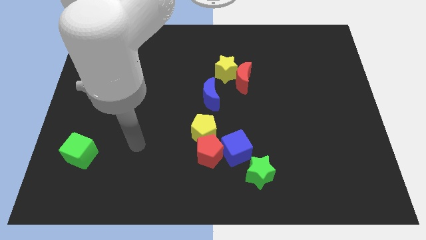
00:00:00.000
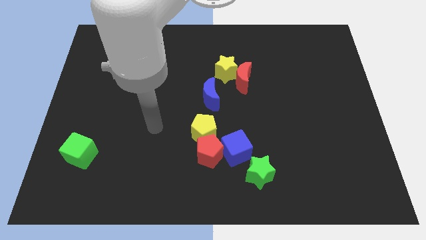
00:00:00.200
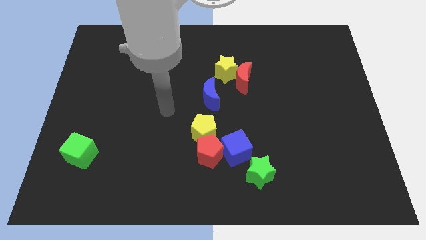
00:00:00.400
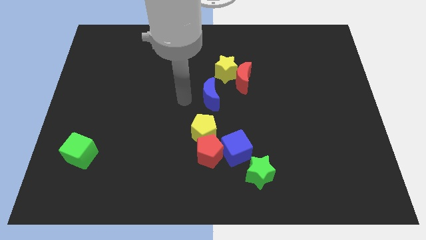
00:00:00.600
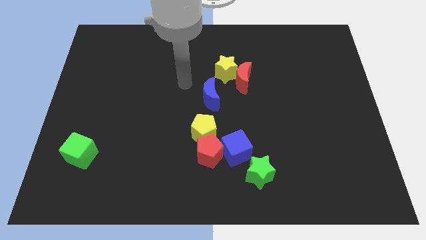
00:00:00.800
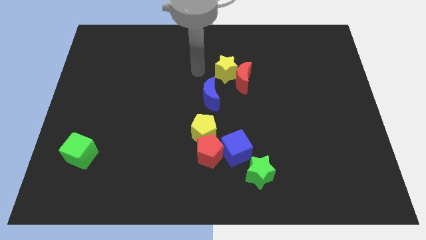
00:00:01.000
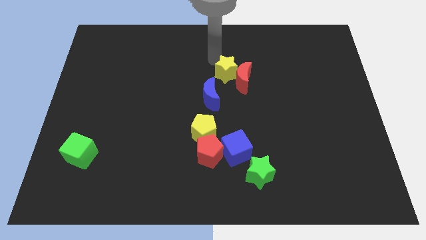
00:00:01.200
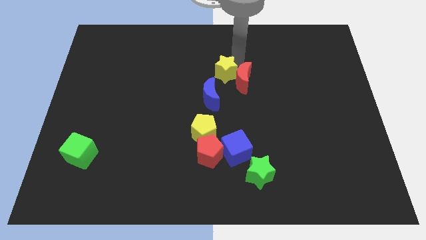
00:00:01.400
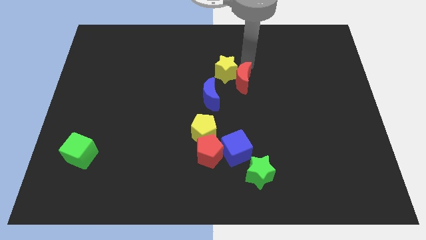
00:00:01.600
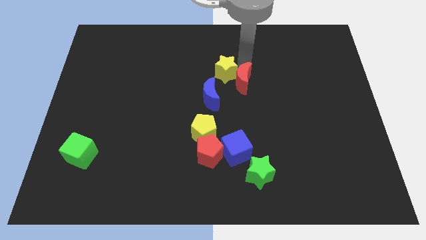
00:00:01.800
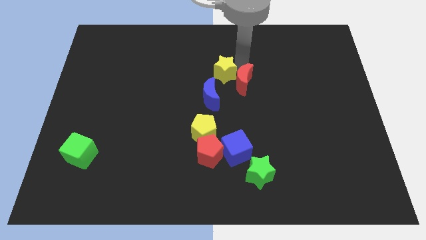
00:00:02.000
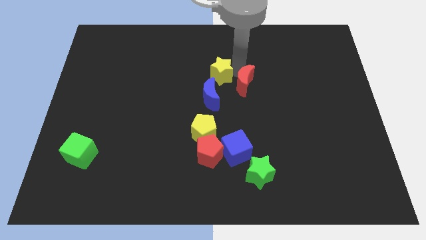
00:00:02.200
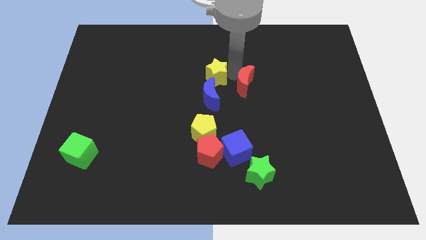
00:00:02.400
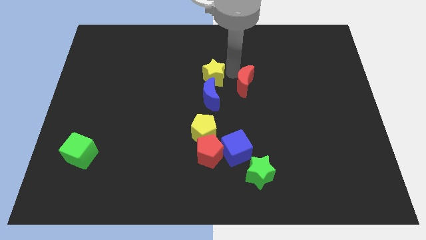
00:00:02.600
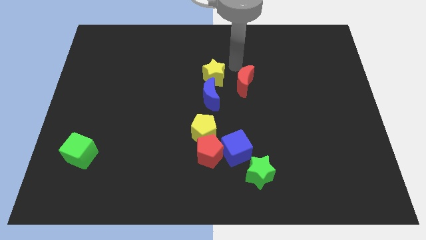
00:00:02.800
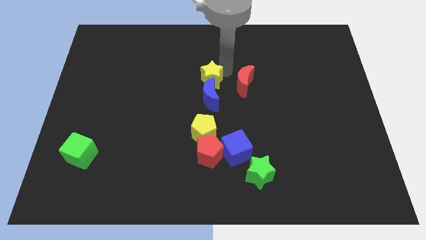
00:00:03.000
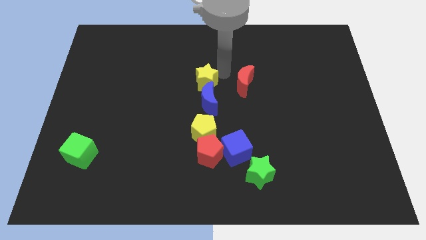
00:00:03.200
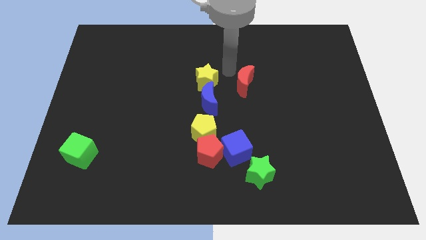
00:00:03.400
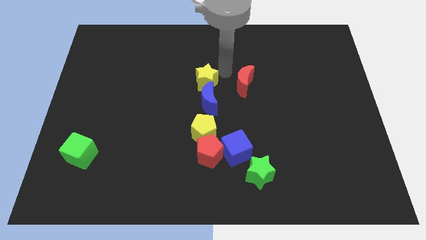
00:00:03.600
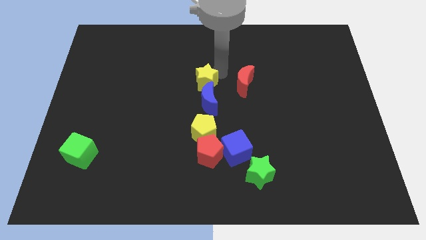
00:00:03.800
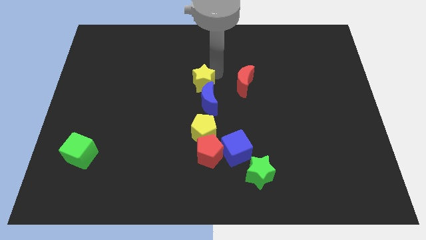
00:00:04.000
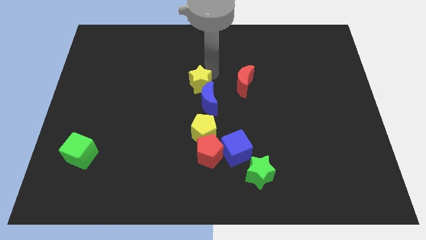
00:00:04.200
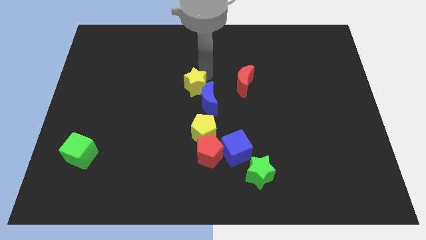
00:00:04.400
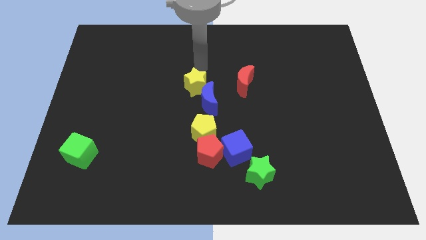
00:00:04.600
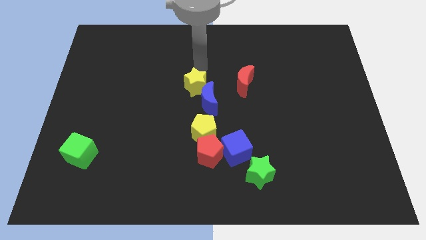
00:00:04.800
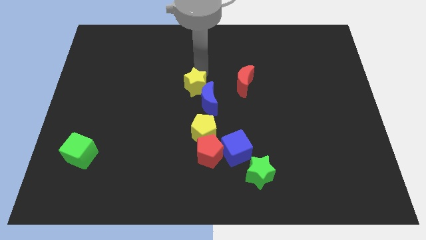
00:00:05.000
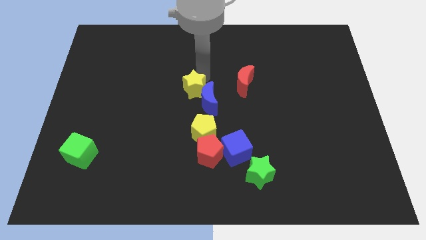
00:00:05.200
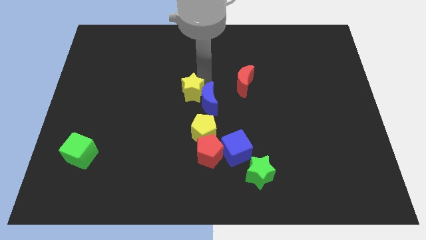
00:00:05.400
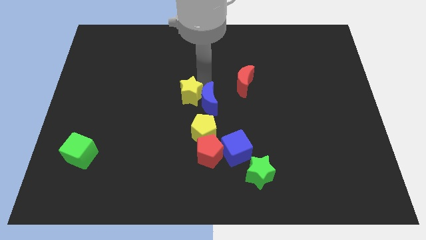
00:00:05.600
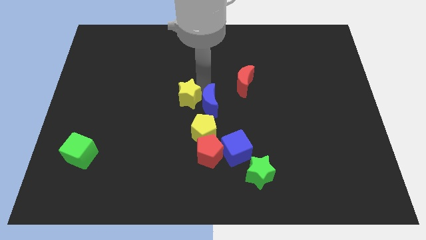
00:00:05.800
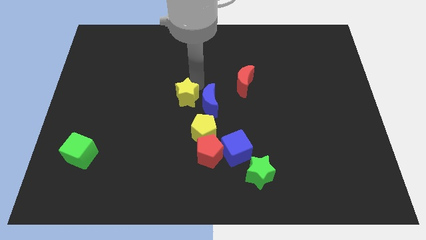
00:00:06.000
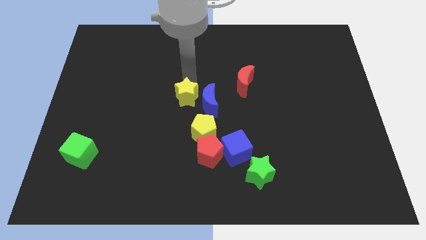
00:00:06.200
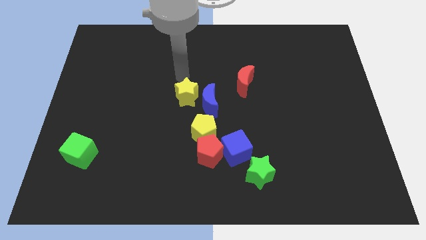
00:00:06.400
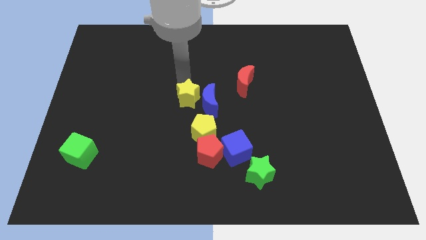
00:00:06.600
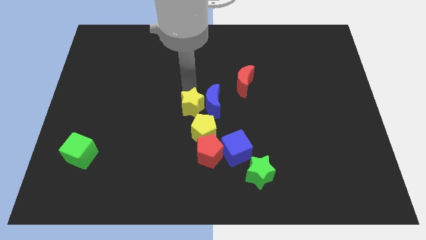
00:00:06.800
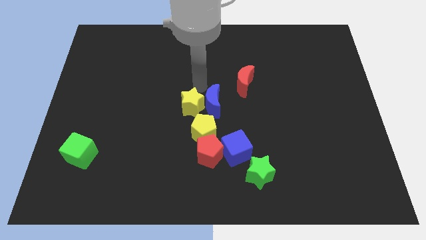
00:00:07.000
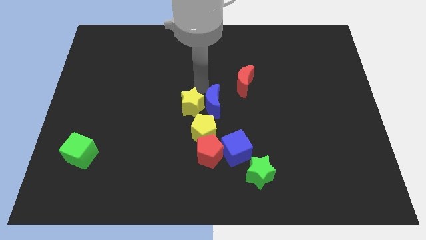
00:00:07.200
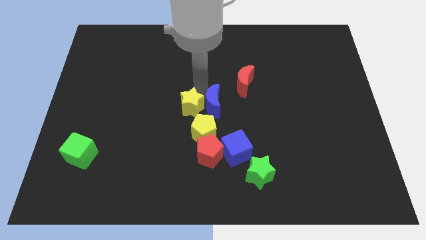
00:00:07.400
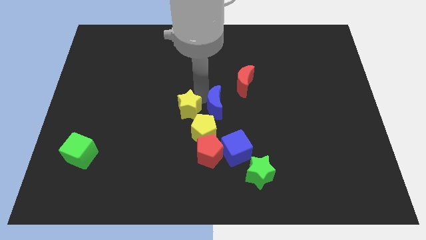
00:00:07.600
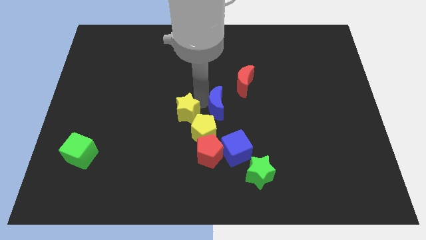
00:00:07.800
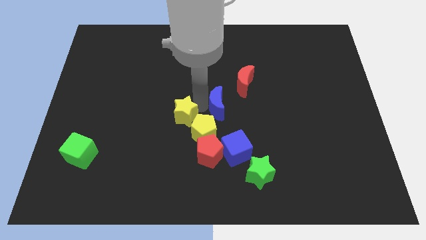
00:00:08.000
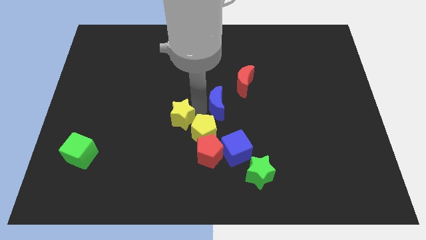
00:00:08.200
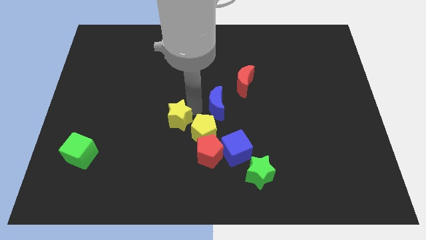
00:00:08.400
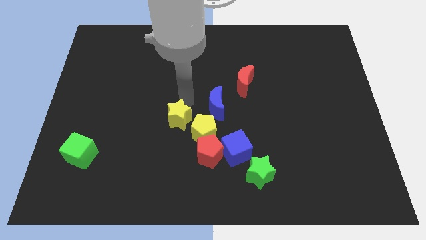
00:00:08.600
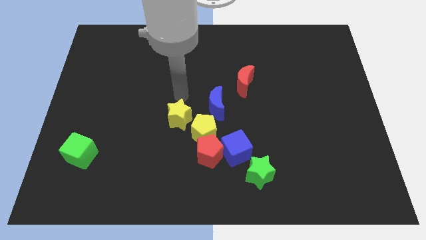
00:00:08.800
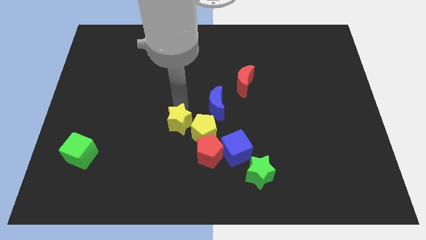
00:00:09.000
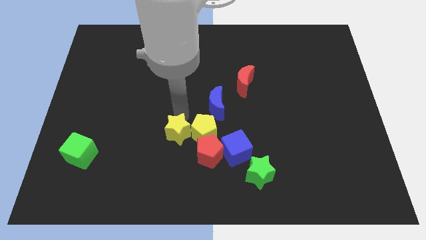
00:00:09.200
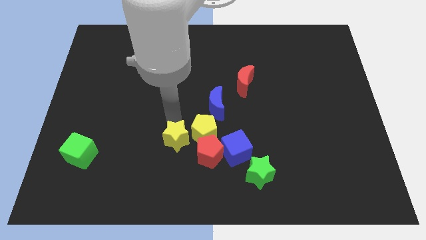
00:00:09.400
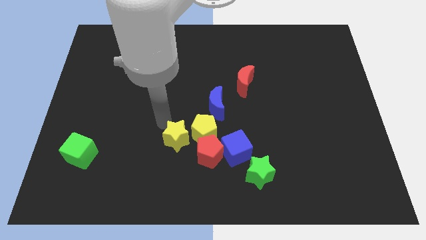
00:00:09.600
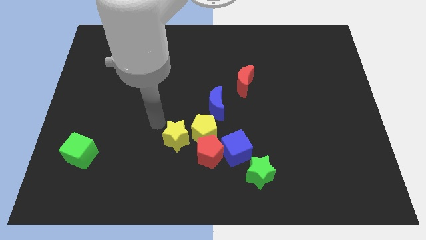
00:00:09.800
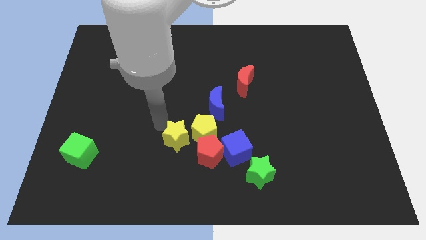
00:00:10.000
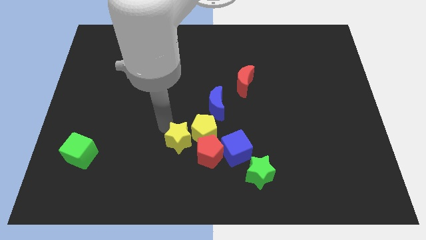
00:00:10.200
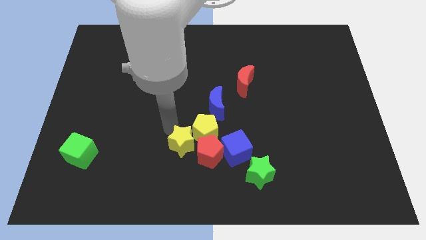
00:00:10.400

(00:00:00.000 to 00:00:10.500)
put the yellow star to the red pentagon

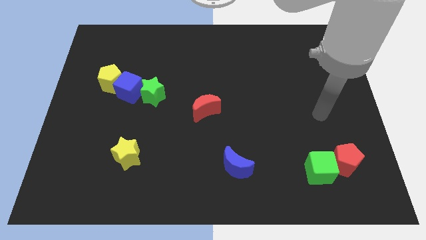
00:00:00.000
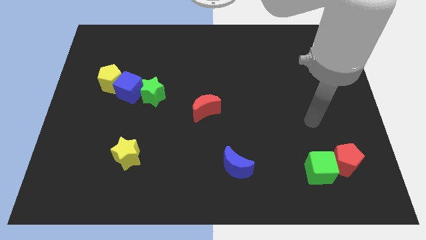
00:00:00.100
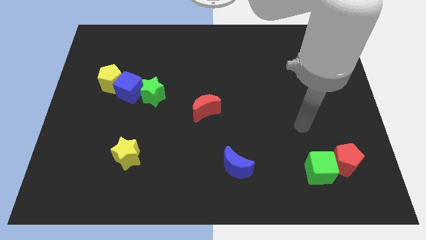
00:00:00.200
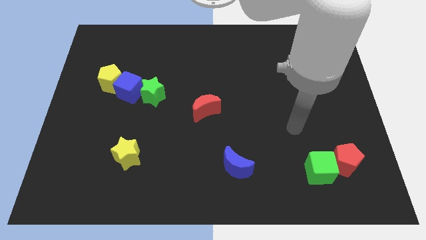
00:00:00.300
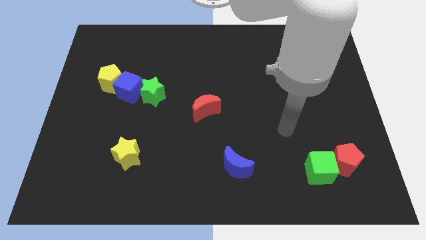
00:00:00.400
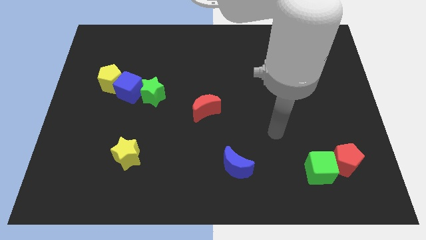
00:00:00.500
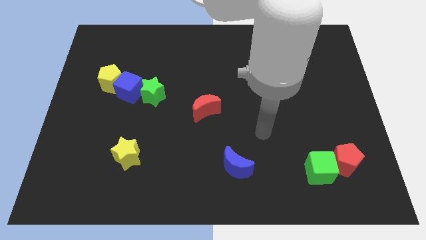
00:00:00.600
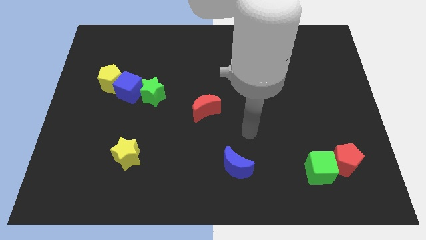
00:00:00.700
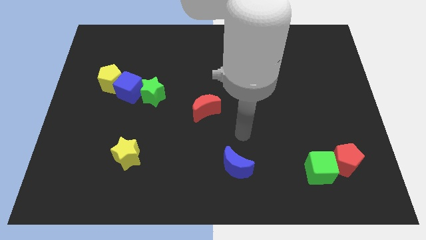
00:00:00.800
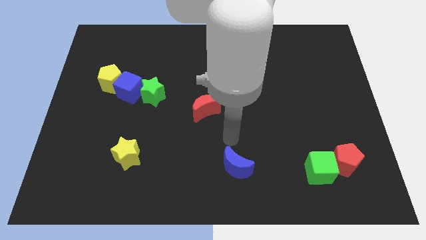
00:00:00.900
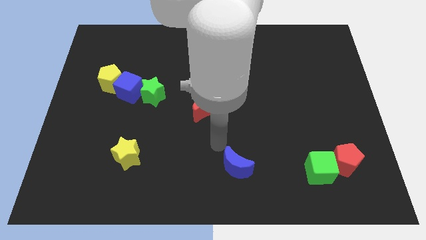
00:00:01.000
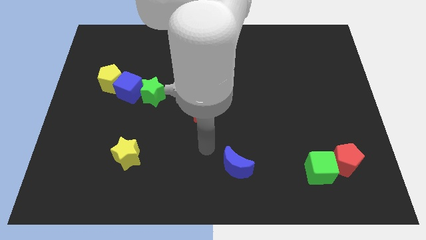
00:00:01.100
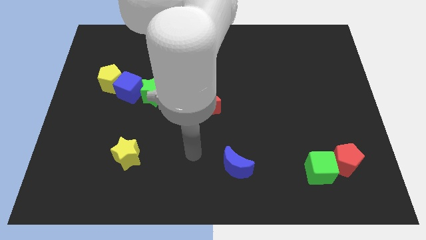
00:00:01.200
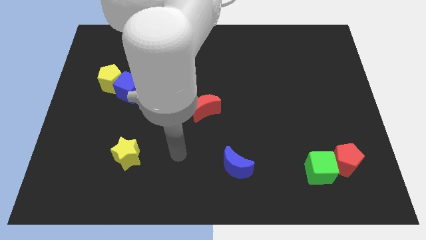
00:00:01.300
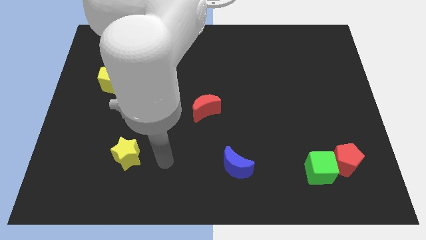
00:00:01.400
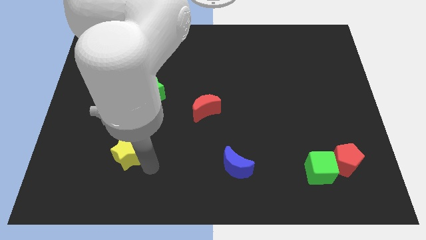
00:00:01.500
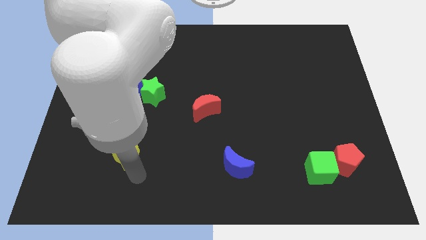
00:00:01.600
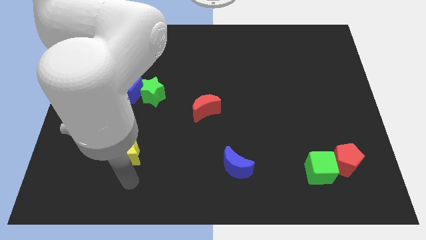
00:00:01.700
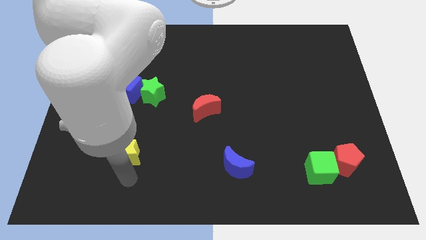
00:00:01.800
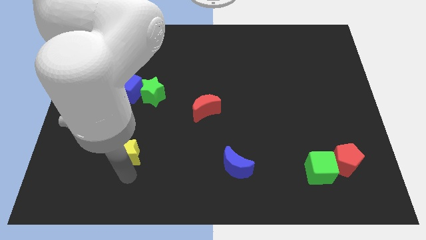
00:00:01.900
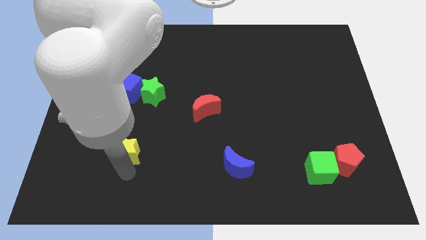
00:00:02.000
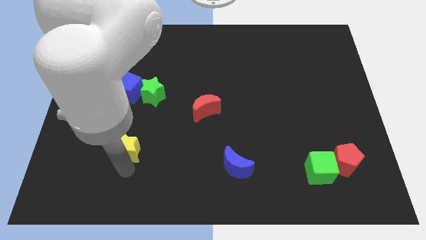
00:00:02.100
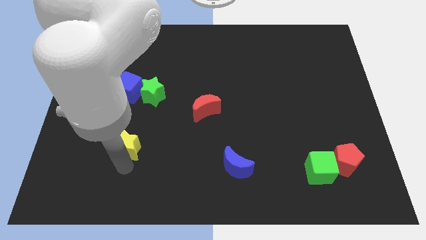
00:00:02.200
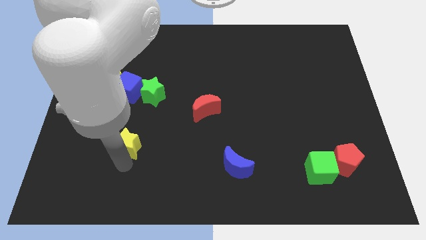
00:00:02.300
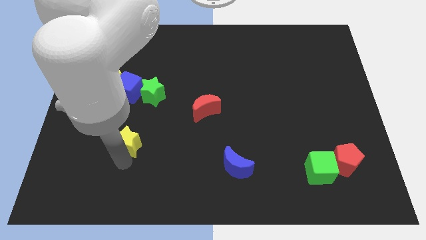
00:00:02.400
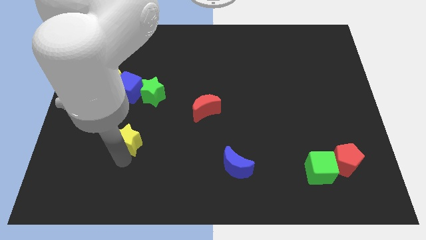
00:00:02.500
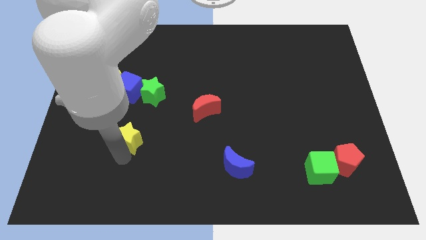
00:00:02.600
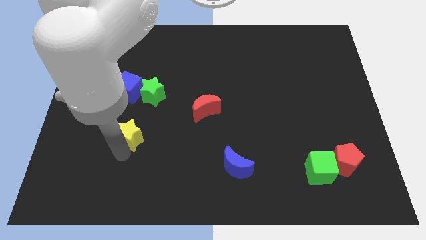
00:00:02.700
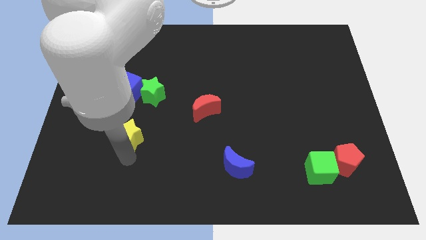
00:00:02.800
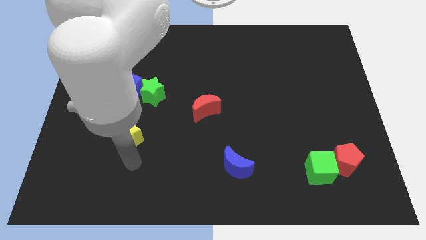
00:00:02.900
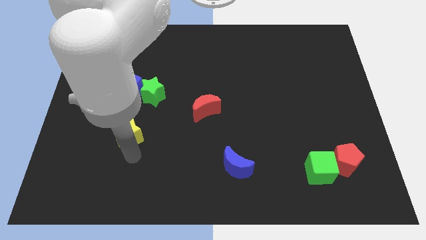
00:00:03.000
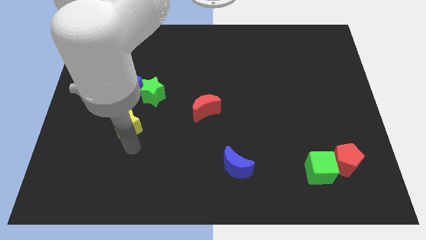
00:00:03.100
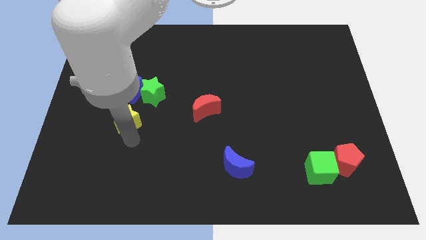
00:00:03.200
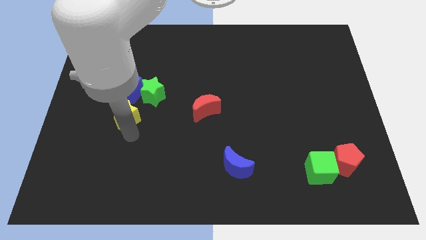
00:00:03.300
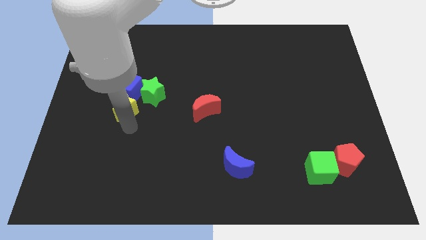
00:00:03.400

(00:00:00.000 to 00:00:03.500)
put the yellow star close to the blue cube
